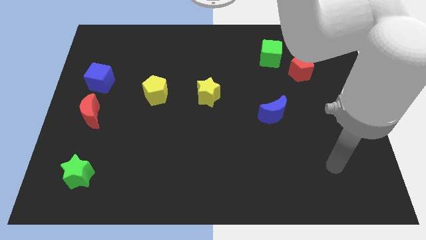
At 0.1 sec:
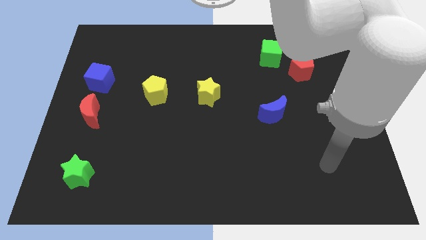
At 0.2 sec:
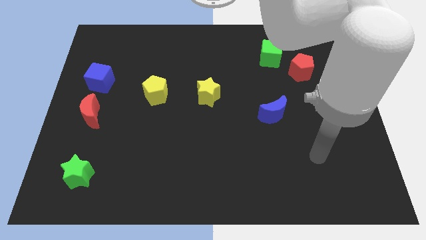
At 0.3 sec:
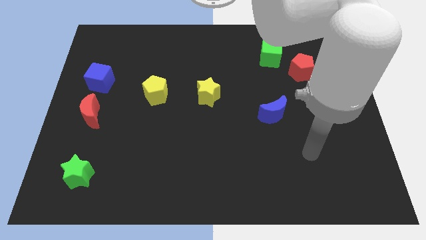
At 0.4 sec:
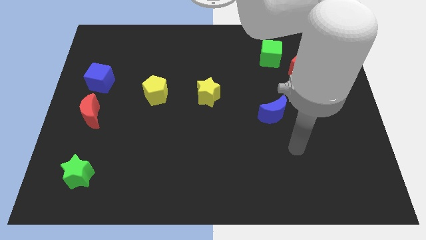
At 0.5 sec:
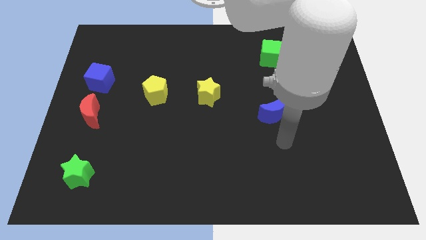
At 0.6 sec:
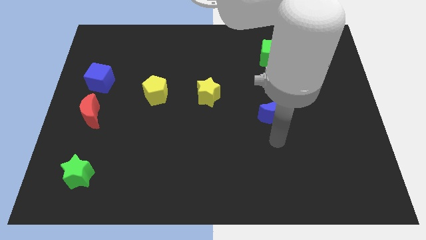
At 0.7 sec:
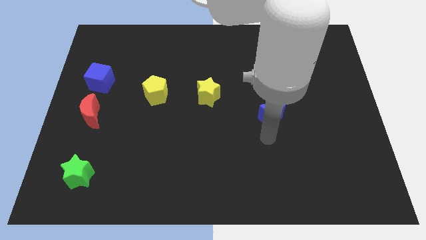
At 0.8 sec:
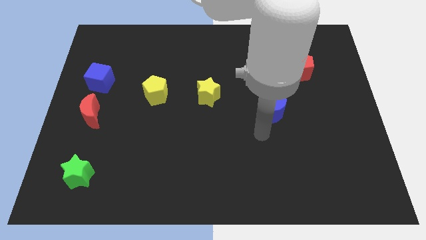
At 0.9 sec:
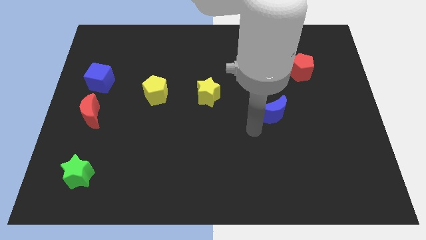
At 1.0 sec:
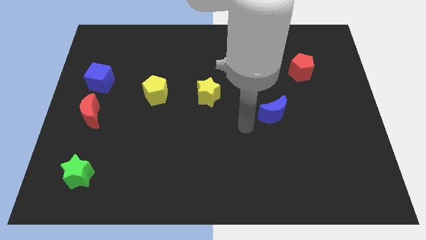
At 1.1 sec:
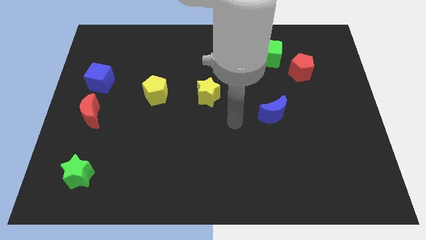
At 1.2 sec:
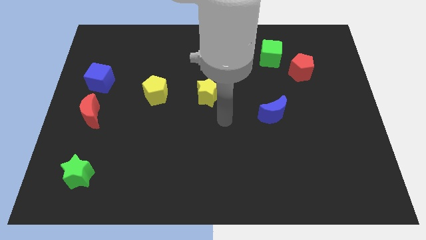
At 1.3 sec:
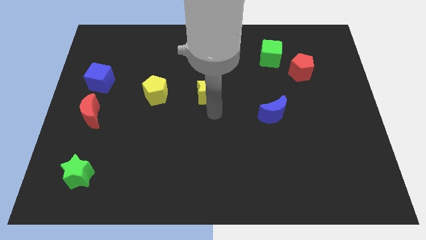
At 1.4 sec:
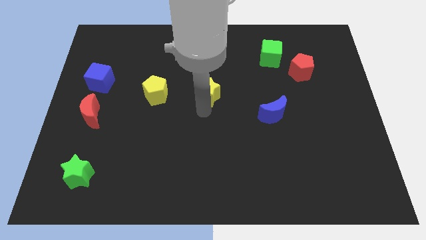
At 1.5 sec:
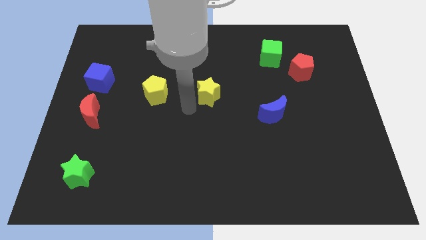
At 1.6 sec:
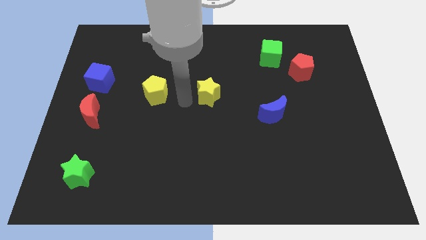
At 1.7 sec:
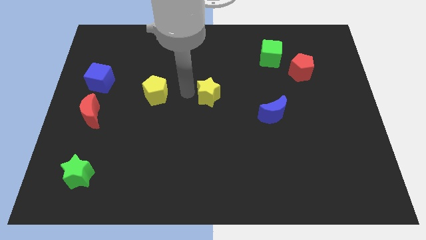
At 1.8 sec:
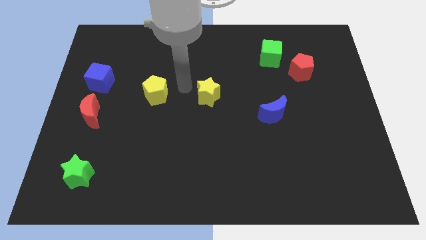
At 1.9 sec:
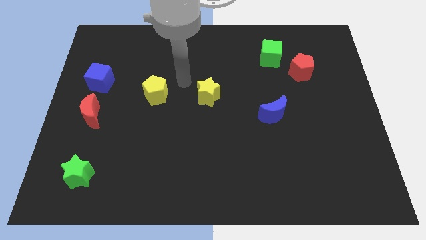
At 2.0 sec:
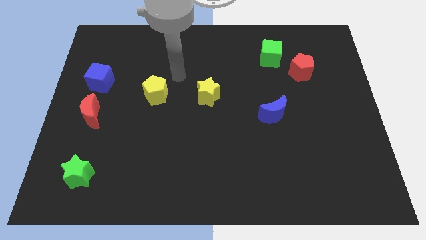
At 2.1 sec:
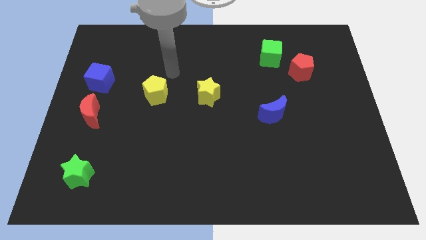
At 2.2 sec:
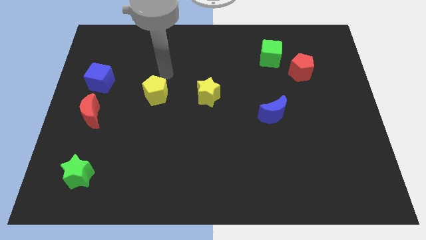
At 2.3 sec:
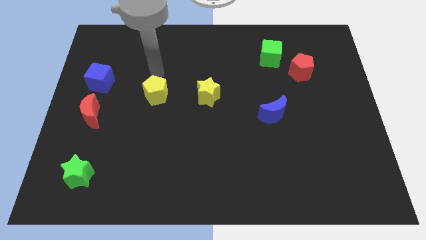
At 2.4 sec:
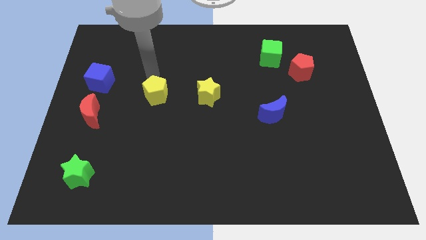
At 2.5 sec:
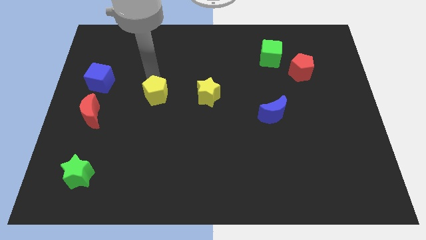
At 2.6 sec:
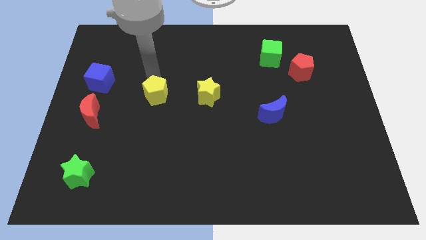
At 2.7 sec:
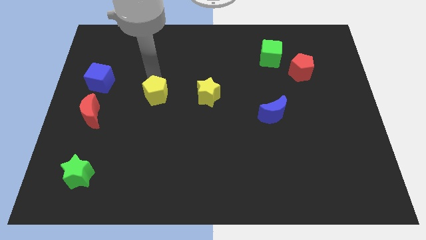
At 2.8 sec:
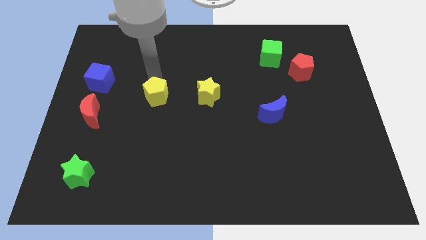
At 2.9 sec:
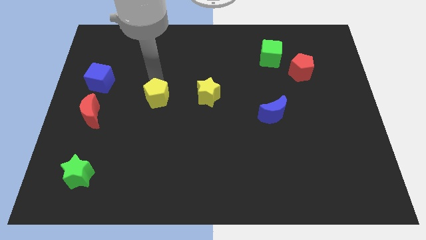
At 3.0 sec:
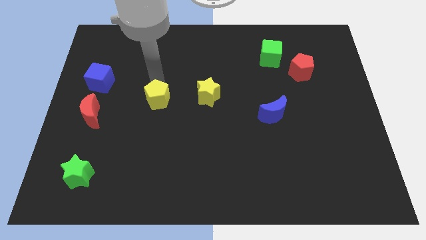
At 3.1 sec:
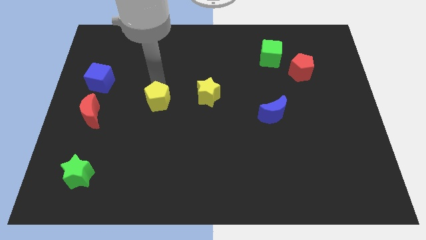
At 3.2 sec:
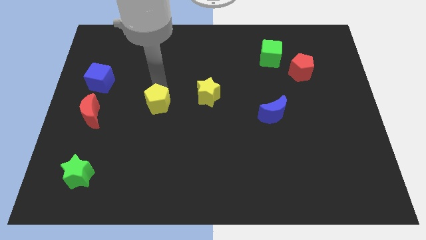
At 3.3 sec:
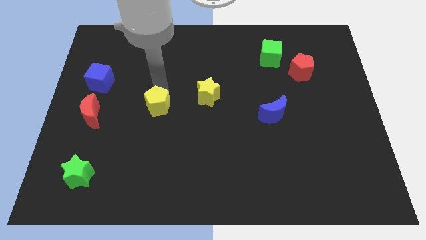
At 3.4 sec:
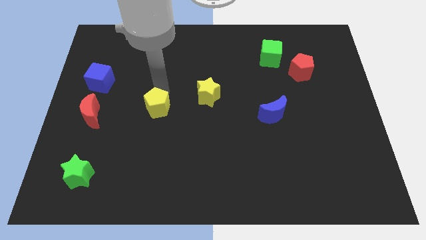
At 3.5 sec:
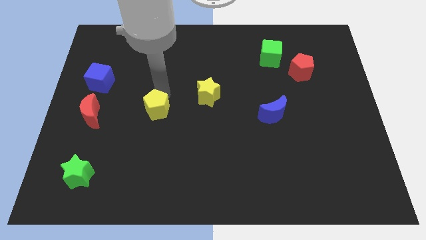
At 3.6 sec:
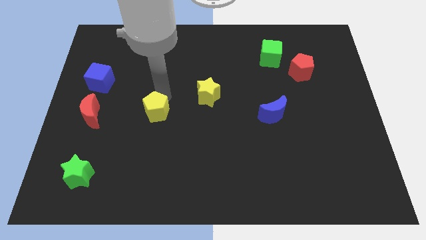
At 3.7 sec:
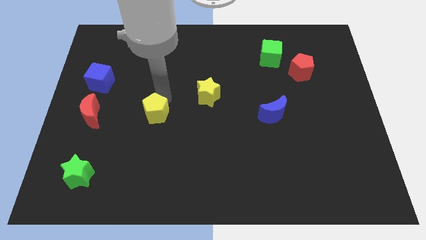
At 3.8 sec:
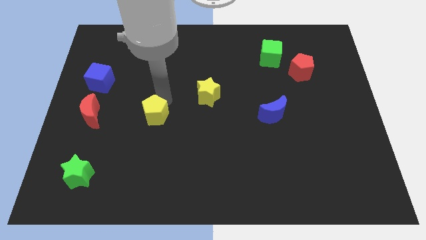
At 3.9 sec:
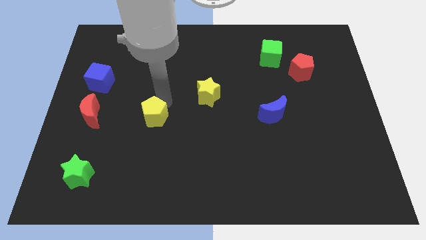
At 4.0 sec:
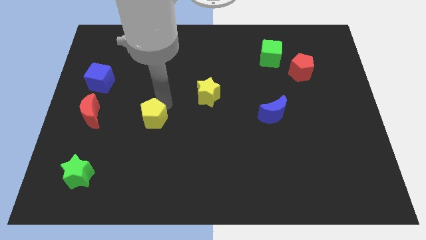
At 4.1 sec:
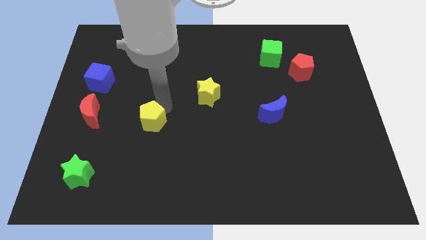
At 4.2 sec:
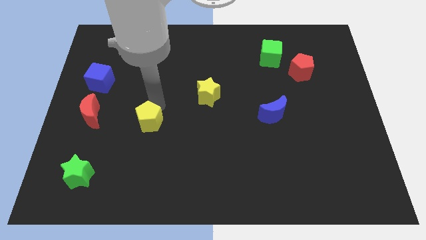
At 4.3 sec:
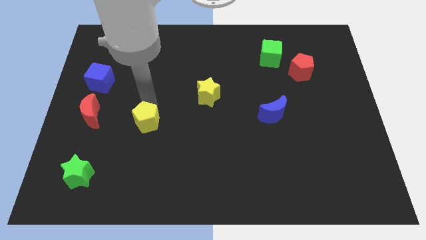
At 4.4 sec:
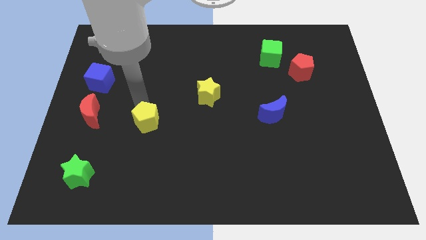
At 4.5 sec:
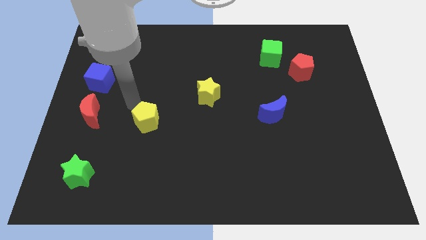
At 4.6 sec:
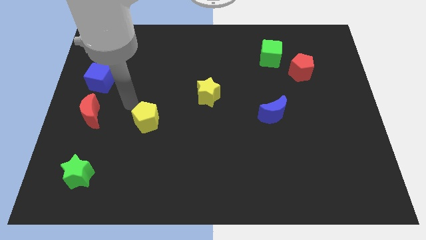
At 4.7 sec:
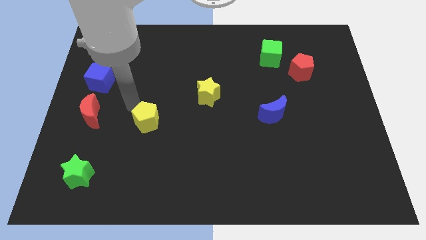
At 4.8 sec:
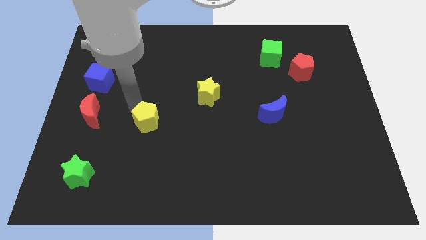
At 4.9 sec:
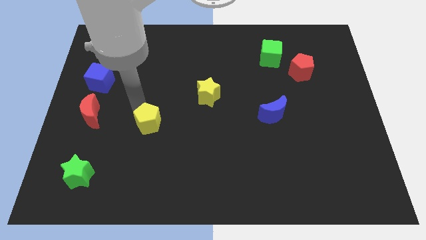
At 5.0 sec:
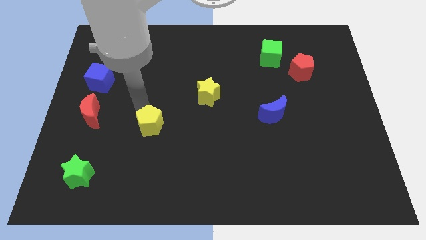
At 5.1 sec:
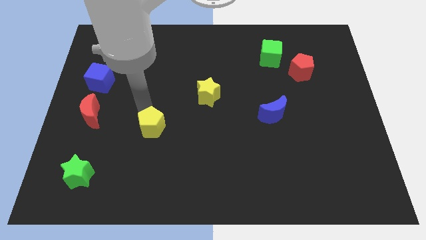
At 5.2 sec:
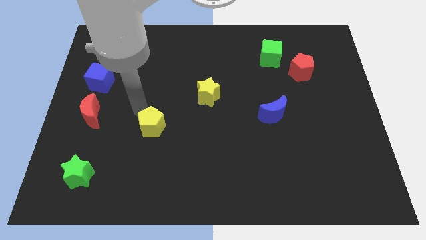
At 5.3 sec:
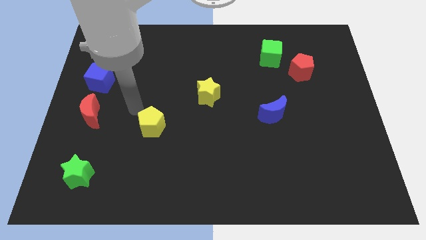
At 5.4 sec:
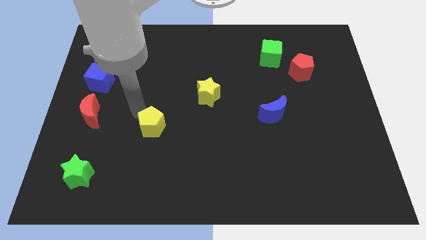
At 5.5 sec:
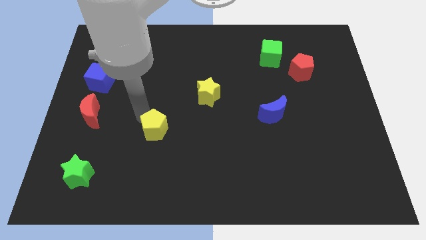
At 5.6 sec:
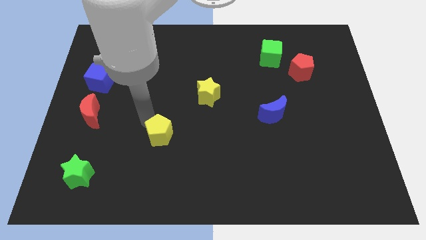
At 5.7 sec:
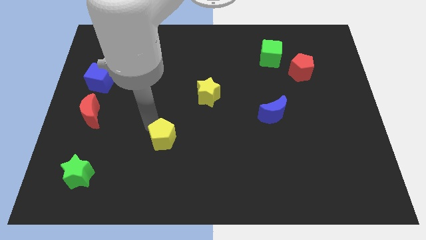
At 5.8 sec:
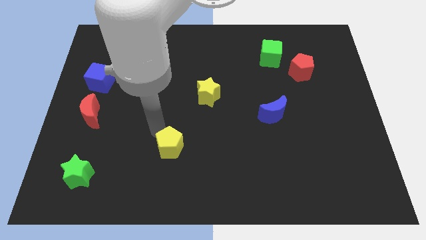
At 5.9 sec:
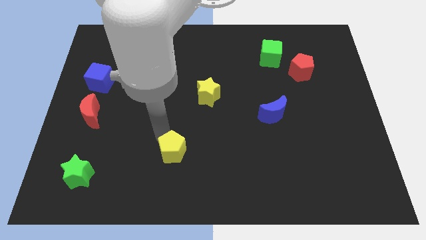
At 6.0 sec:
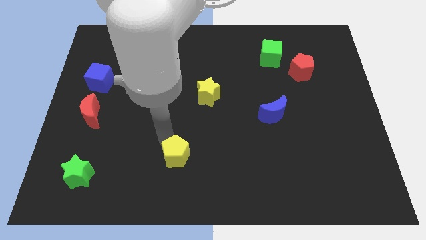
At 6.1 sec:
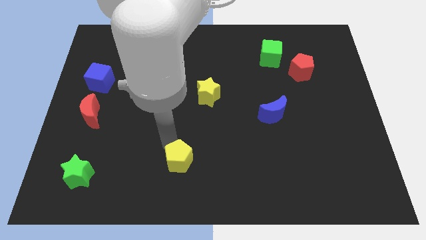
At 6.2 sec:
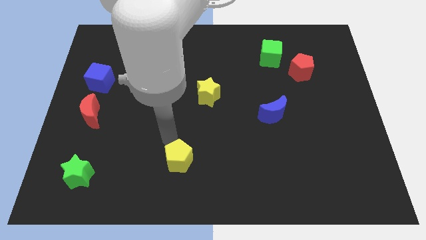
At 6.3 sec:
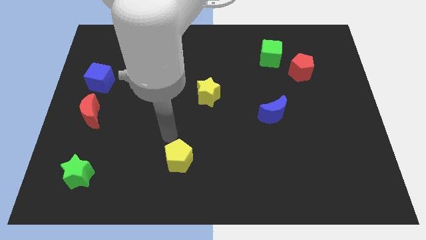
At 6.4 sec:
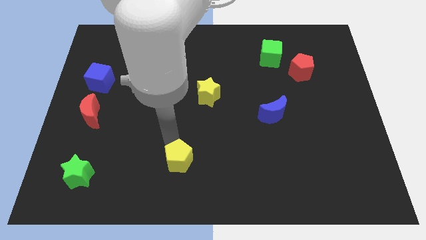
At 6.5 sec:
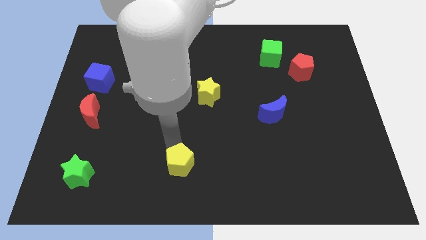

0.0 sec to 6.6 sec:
move the yellow pentagon to the bottom
